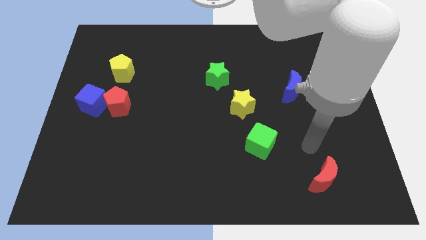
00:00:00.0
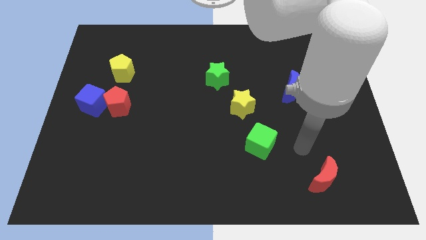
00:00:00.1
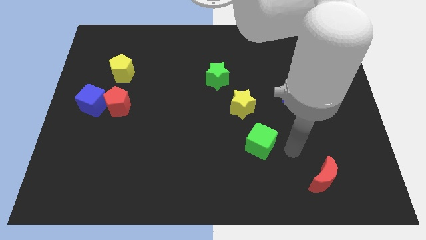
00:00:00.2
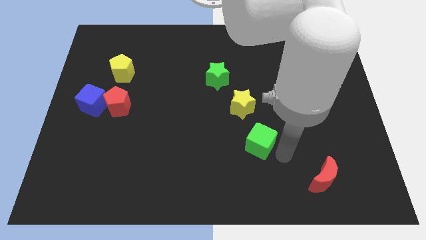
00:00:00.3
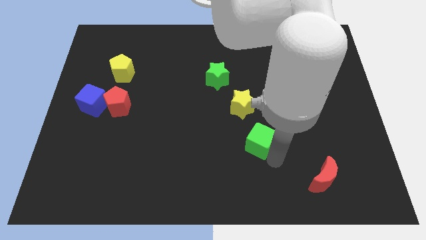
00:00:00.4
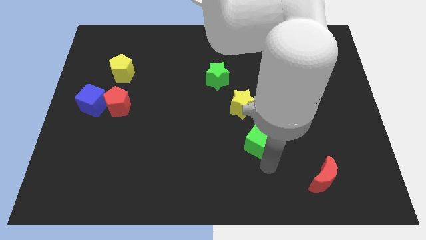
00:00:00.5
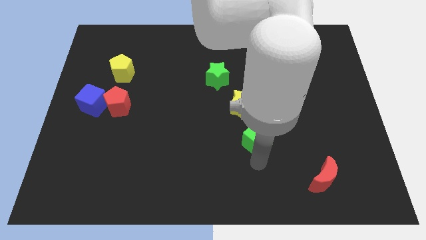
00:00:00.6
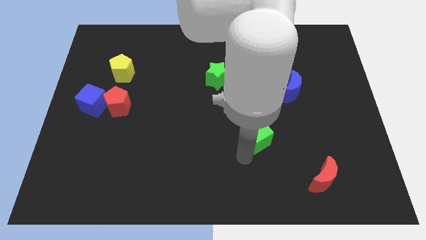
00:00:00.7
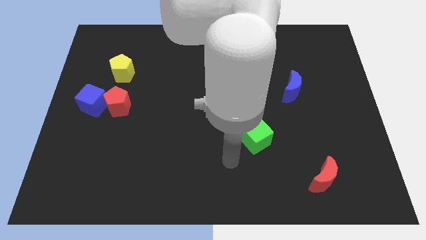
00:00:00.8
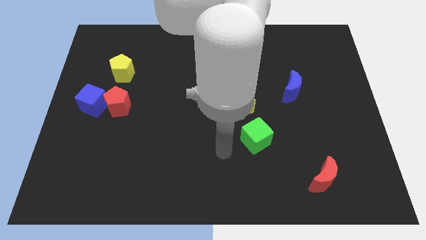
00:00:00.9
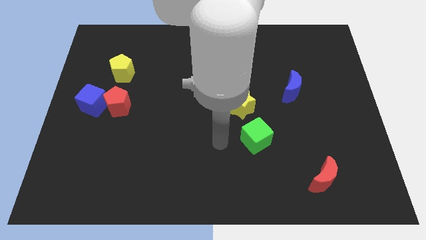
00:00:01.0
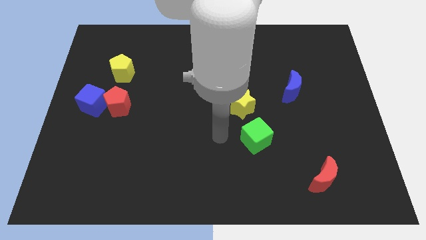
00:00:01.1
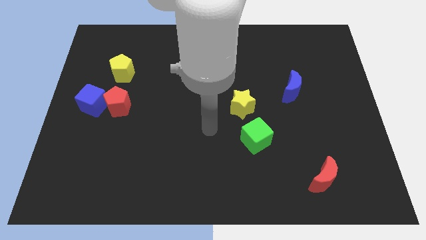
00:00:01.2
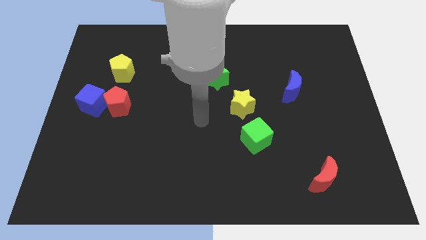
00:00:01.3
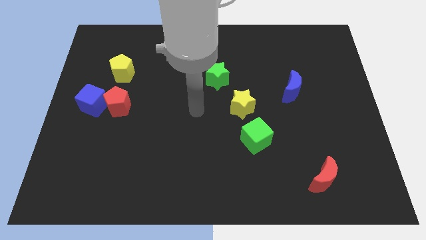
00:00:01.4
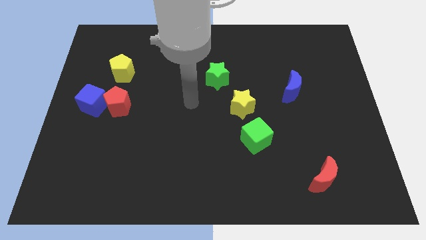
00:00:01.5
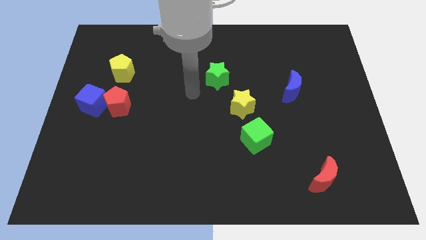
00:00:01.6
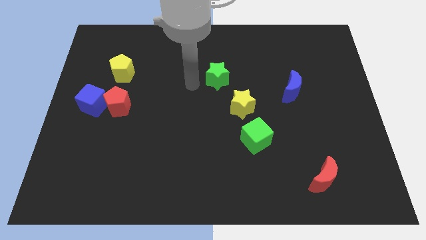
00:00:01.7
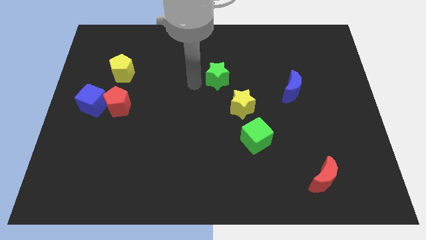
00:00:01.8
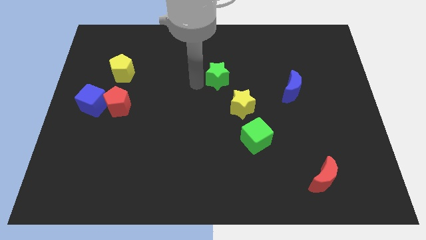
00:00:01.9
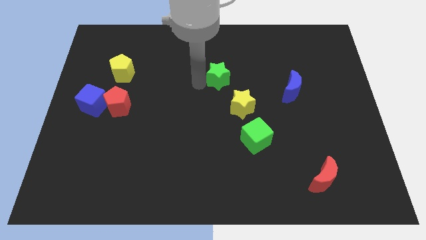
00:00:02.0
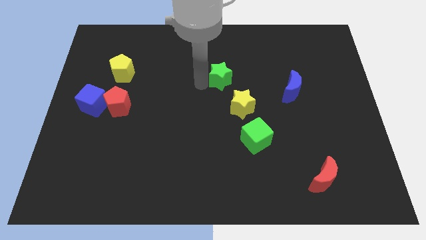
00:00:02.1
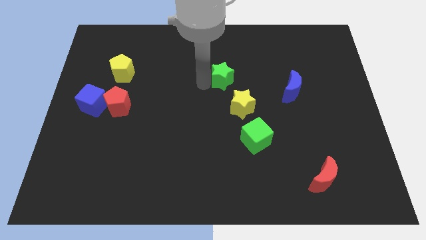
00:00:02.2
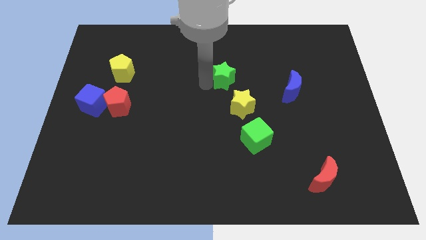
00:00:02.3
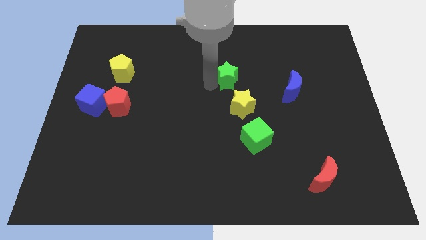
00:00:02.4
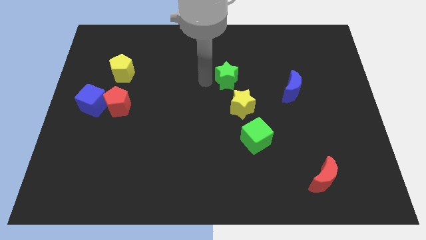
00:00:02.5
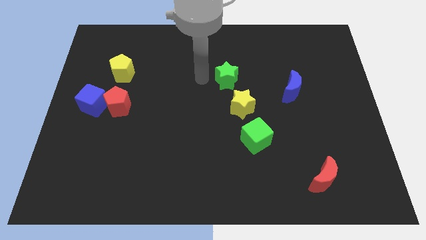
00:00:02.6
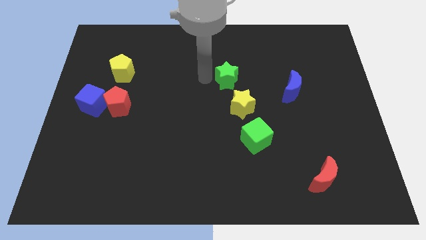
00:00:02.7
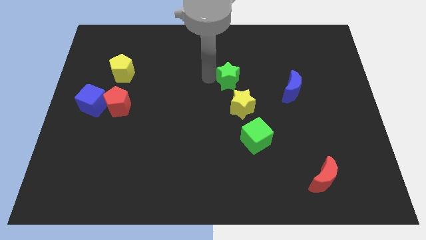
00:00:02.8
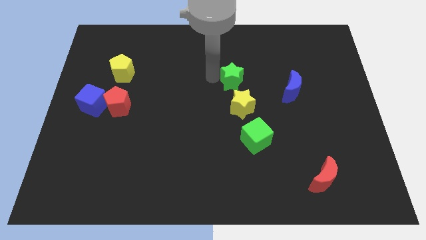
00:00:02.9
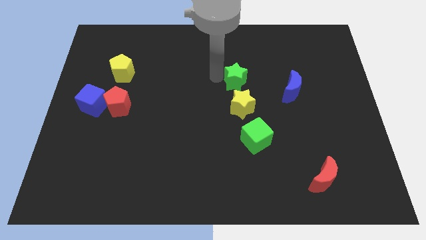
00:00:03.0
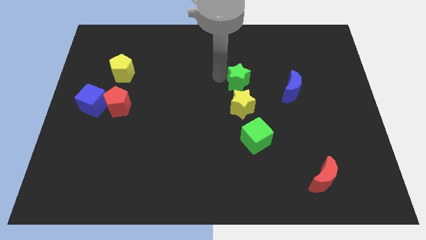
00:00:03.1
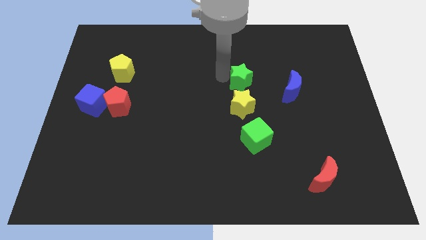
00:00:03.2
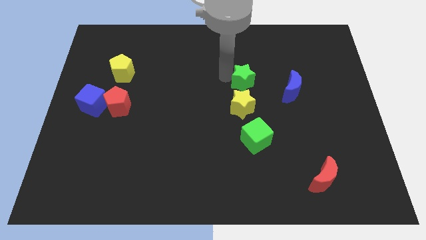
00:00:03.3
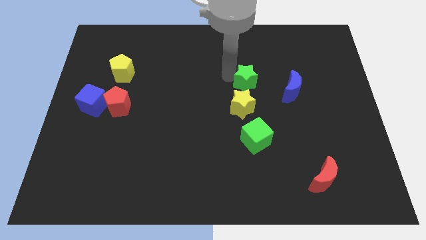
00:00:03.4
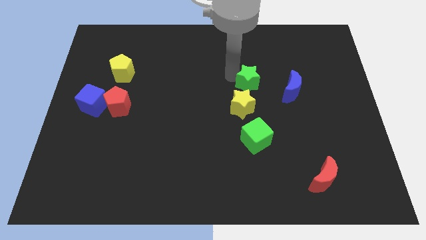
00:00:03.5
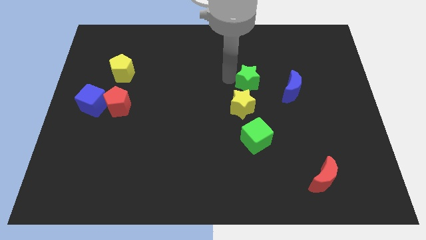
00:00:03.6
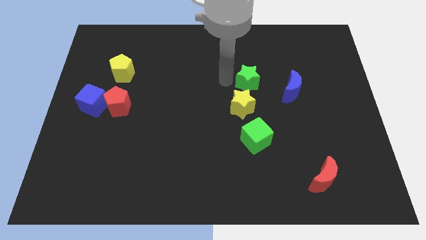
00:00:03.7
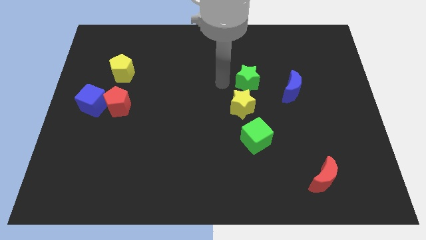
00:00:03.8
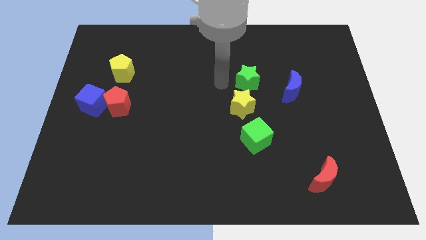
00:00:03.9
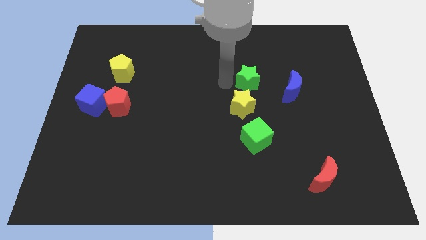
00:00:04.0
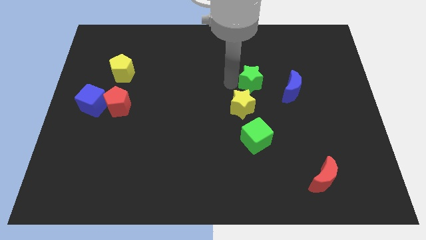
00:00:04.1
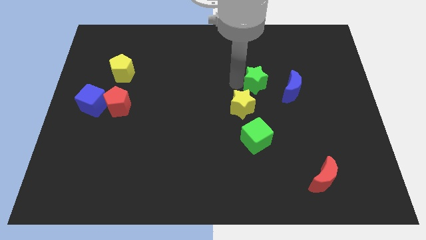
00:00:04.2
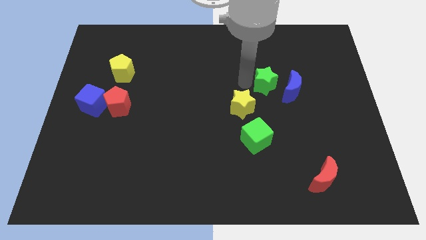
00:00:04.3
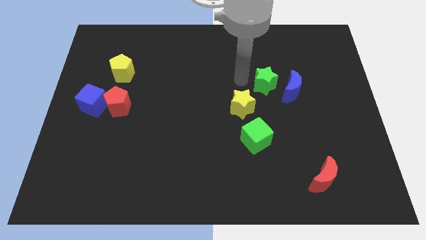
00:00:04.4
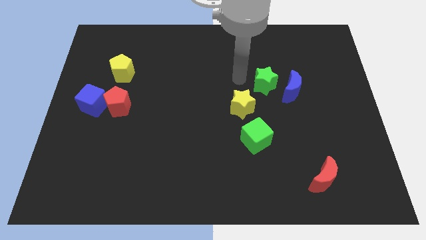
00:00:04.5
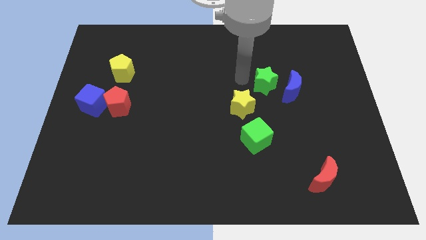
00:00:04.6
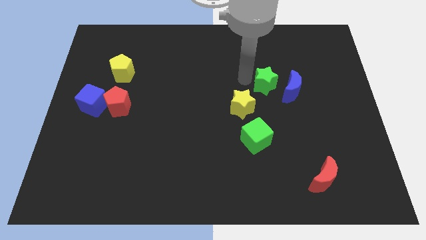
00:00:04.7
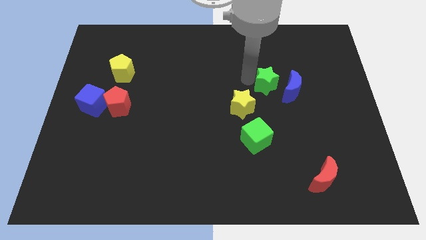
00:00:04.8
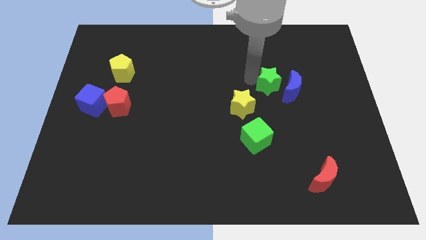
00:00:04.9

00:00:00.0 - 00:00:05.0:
put the green star to the blue moon

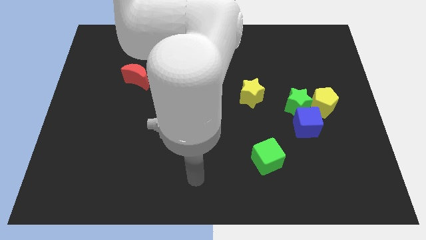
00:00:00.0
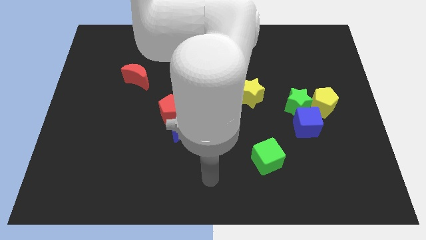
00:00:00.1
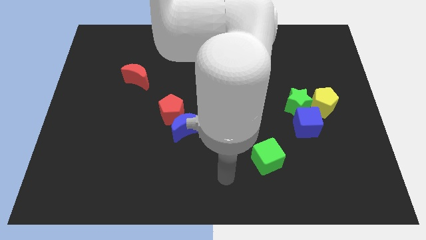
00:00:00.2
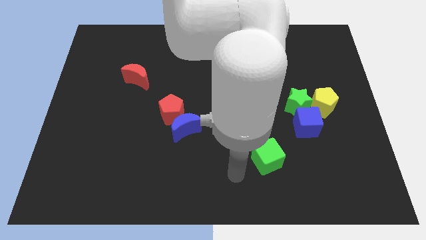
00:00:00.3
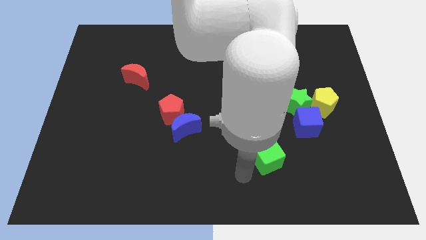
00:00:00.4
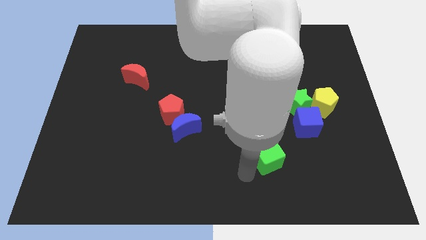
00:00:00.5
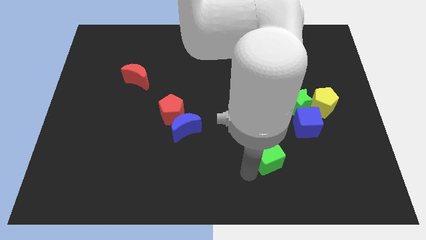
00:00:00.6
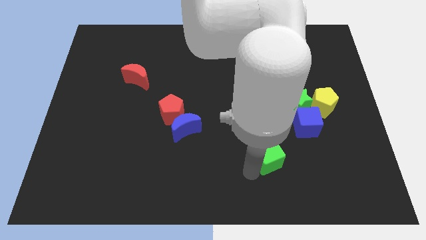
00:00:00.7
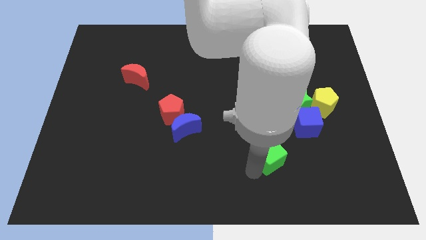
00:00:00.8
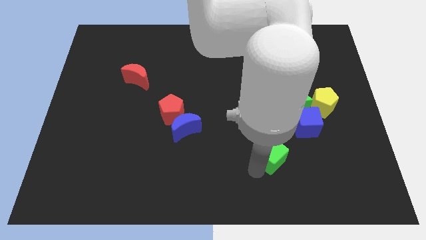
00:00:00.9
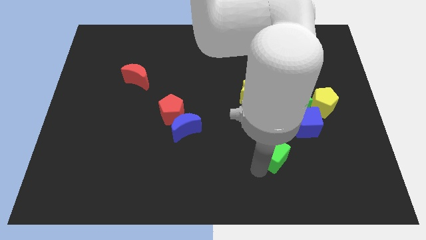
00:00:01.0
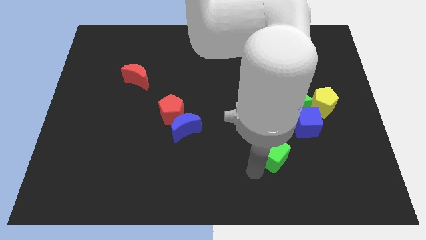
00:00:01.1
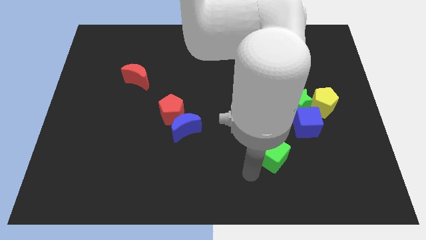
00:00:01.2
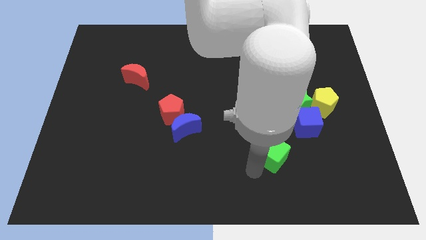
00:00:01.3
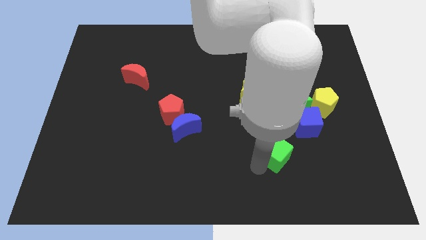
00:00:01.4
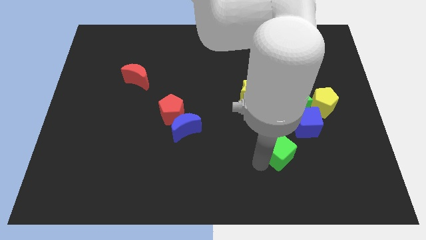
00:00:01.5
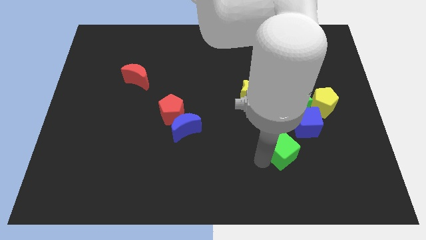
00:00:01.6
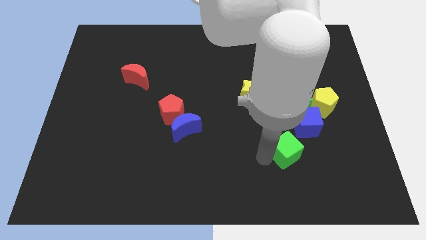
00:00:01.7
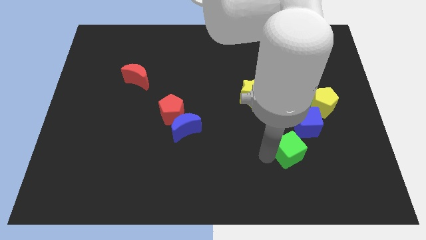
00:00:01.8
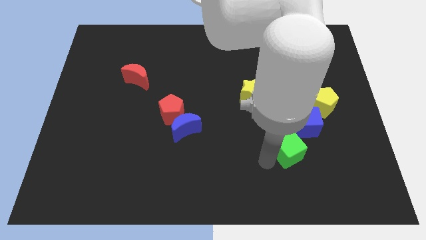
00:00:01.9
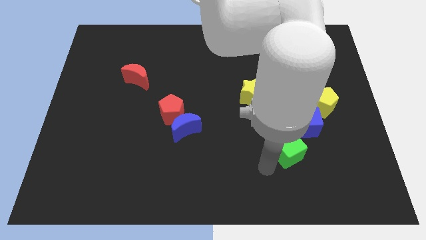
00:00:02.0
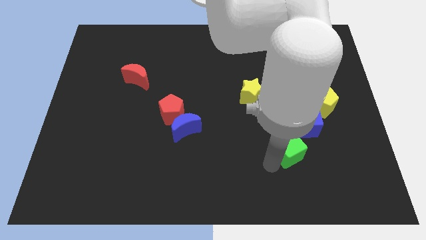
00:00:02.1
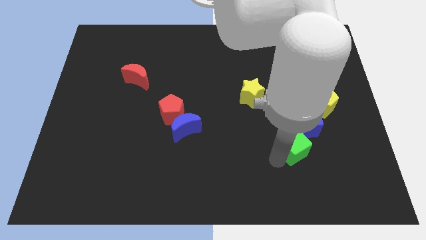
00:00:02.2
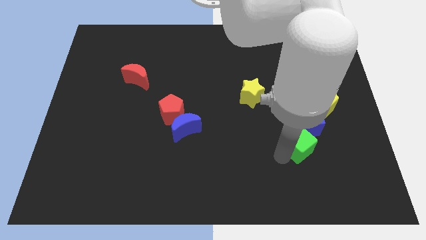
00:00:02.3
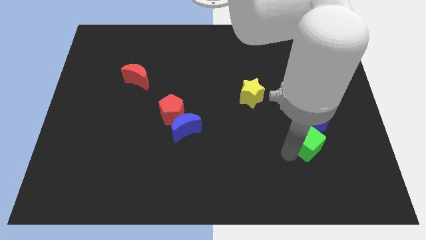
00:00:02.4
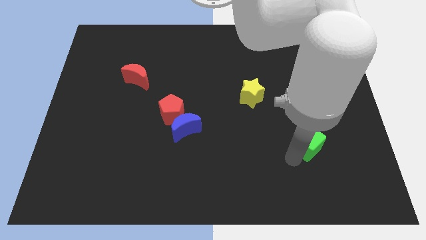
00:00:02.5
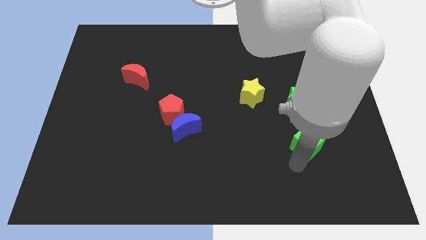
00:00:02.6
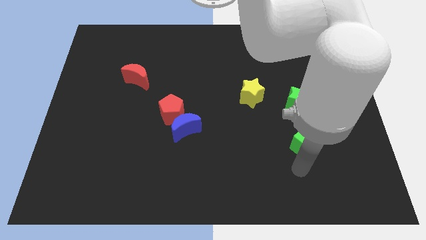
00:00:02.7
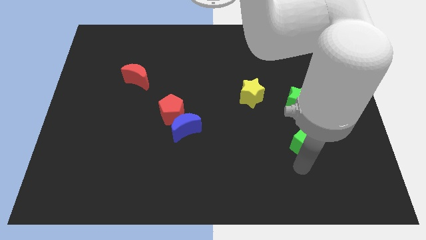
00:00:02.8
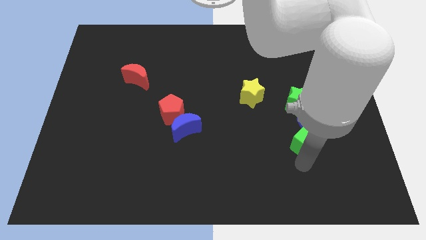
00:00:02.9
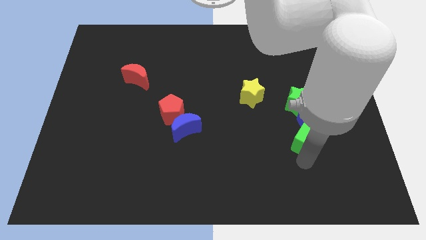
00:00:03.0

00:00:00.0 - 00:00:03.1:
move the green cube towards the blue cube

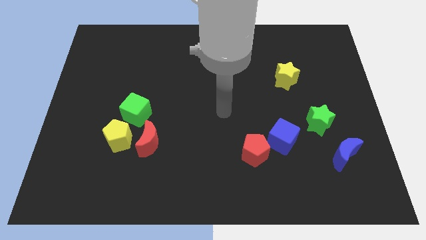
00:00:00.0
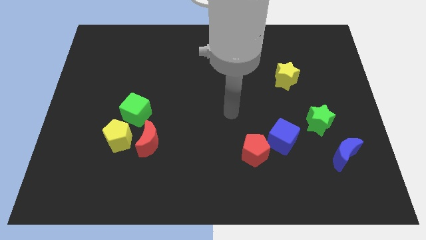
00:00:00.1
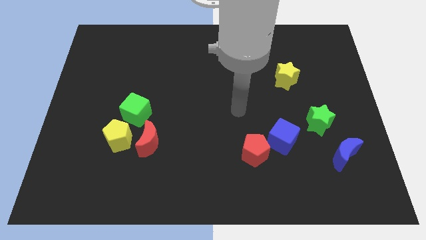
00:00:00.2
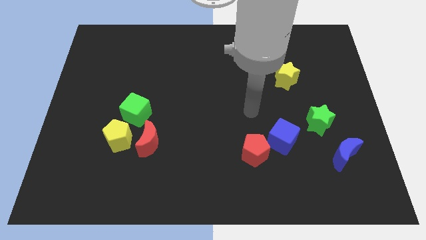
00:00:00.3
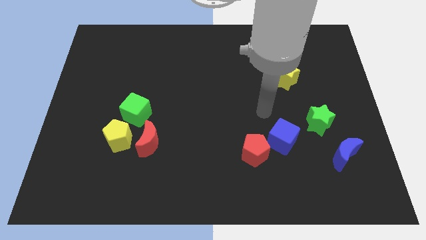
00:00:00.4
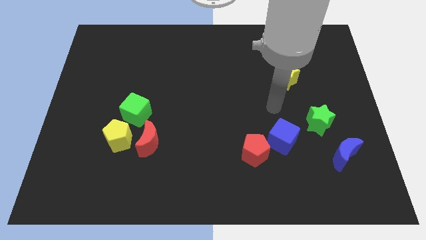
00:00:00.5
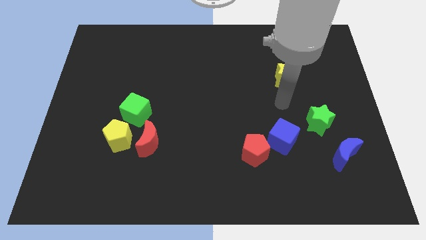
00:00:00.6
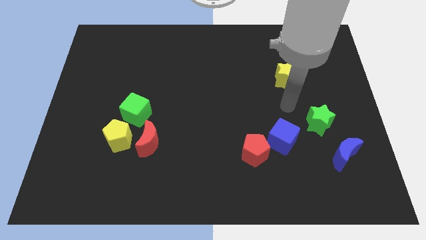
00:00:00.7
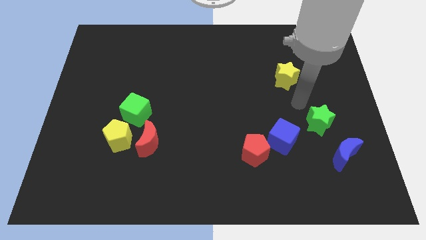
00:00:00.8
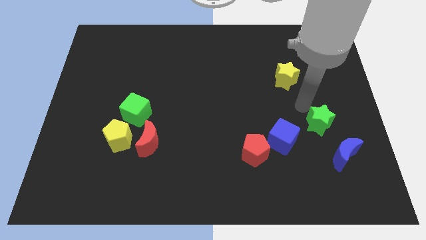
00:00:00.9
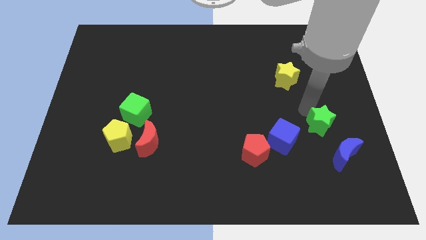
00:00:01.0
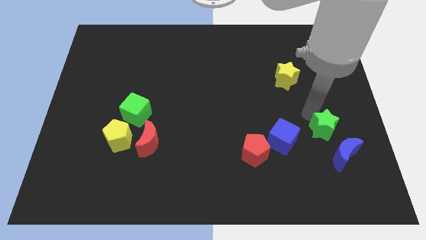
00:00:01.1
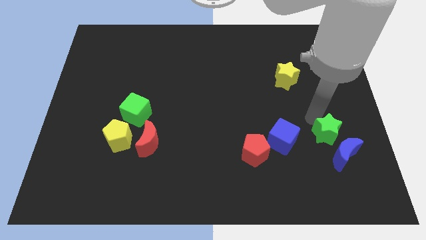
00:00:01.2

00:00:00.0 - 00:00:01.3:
slide the green star to the blue moon
